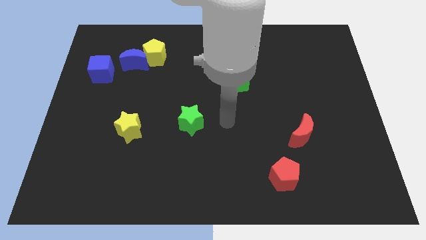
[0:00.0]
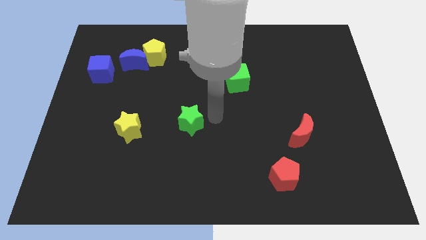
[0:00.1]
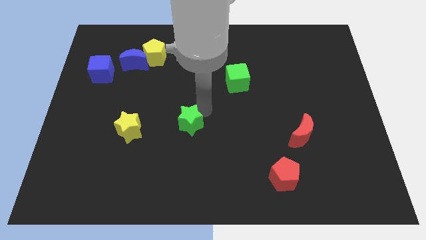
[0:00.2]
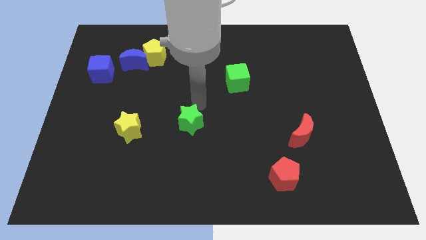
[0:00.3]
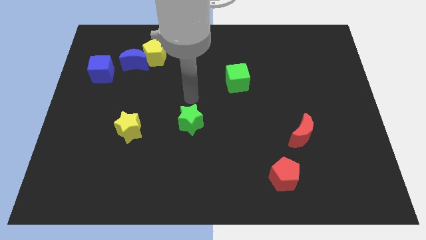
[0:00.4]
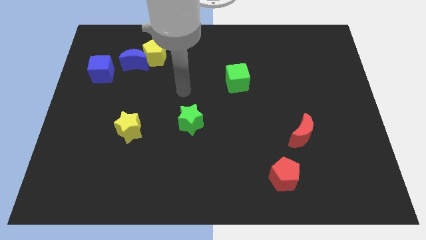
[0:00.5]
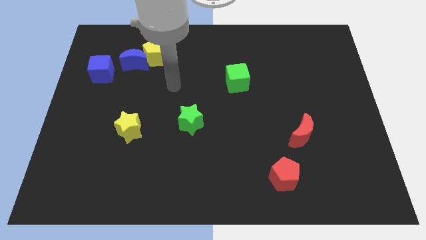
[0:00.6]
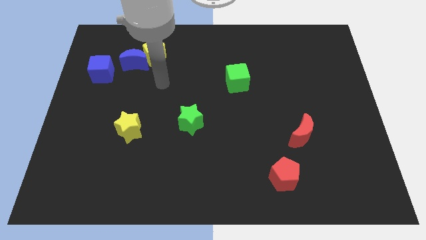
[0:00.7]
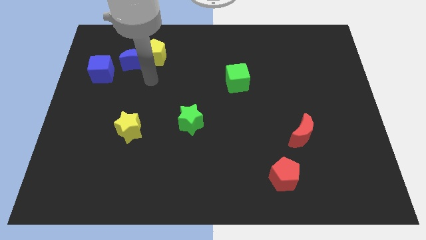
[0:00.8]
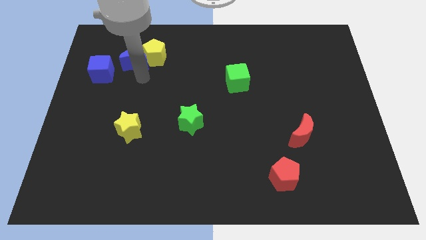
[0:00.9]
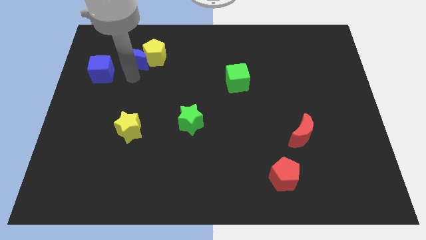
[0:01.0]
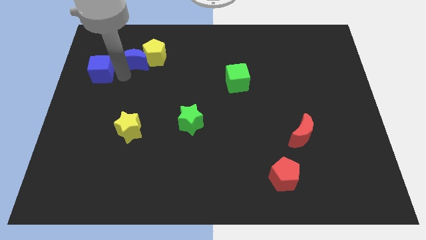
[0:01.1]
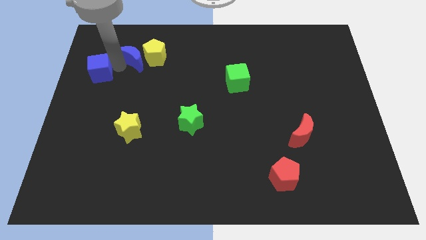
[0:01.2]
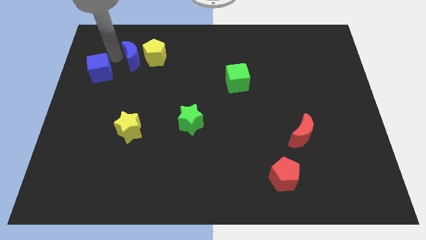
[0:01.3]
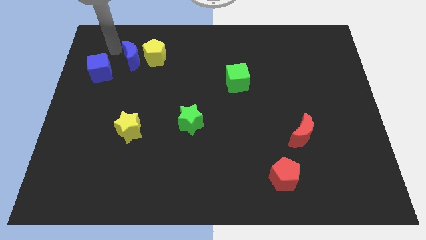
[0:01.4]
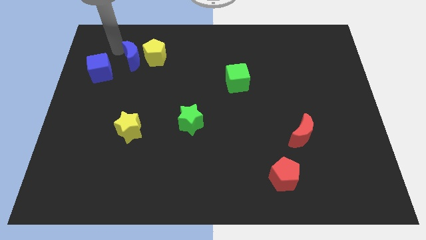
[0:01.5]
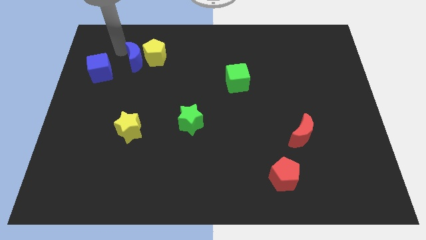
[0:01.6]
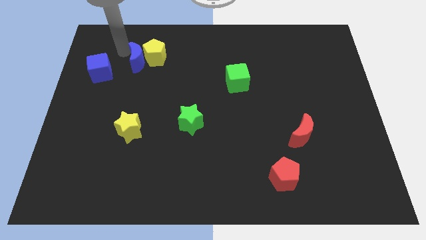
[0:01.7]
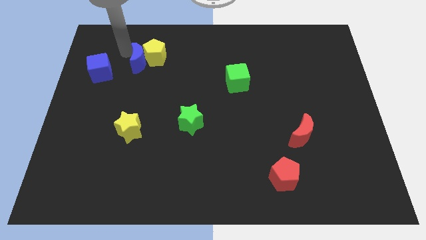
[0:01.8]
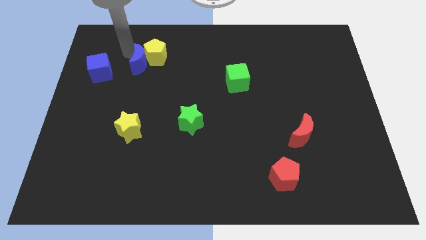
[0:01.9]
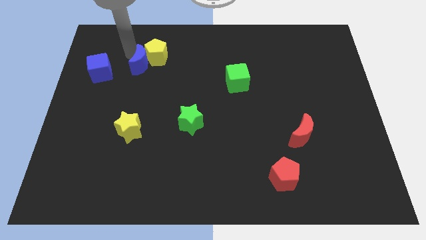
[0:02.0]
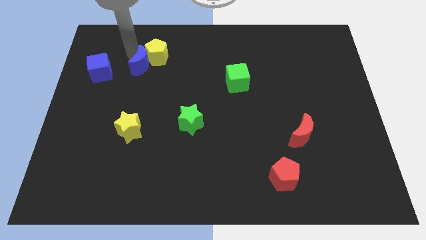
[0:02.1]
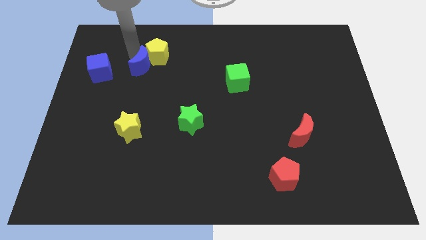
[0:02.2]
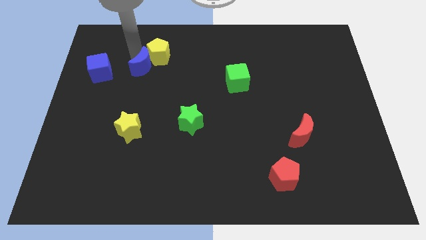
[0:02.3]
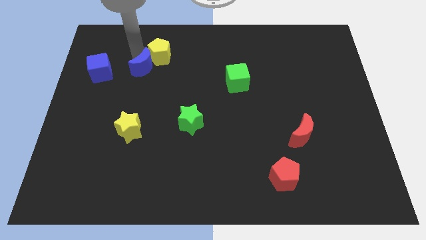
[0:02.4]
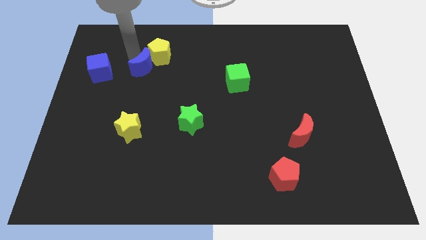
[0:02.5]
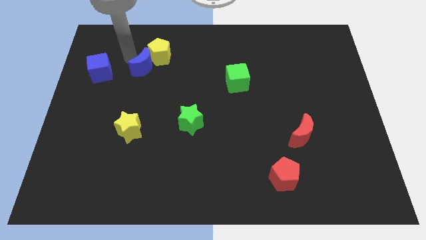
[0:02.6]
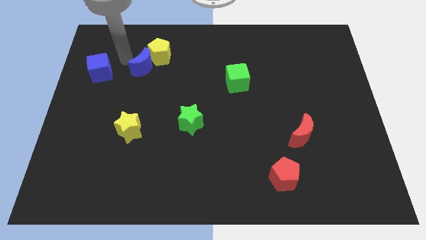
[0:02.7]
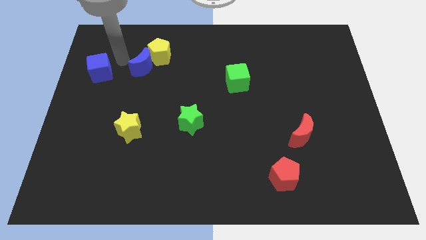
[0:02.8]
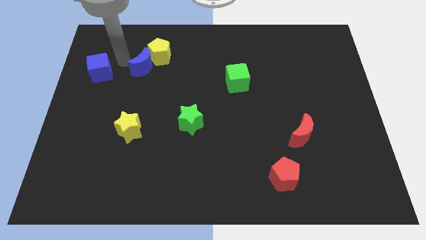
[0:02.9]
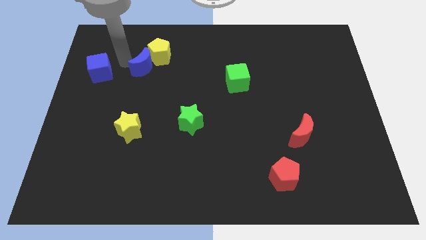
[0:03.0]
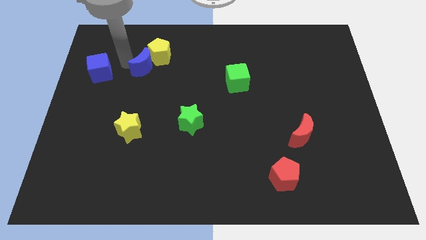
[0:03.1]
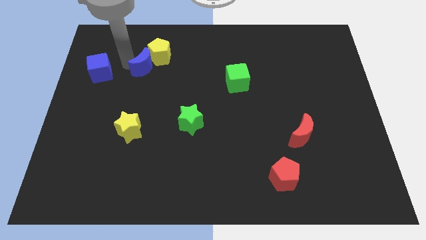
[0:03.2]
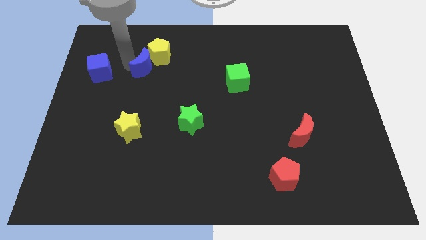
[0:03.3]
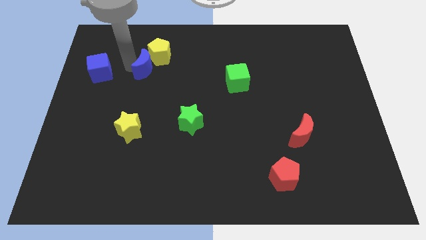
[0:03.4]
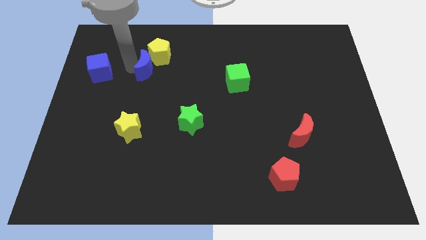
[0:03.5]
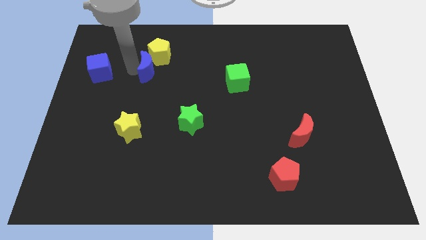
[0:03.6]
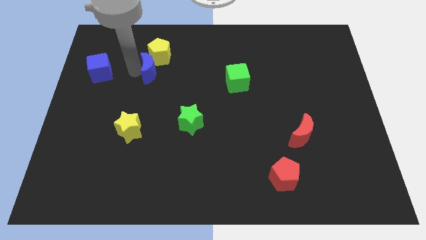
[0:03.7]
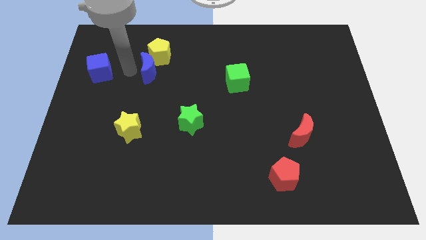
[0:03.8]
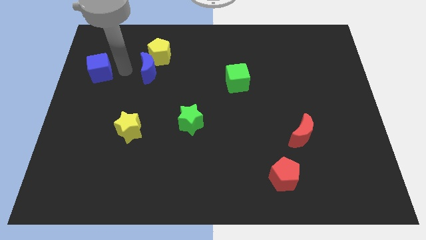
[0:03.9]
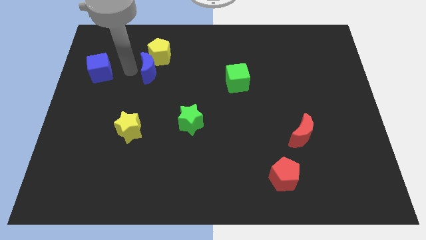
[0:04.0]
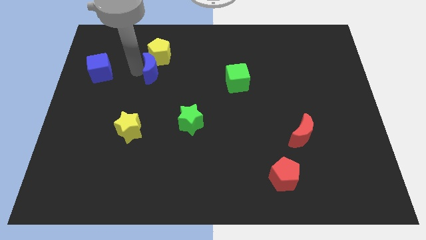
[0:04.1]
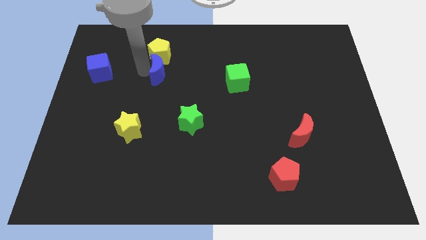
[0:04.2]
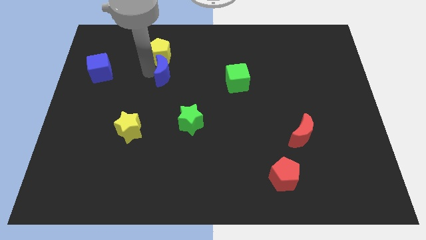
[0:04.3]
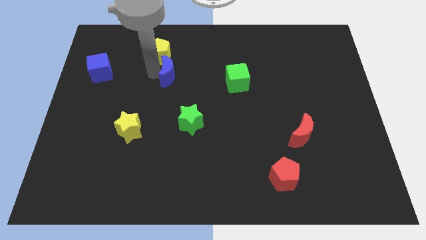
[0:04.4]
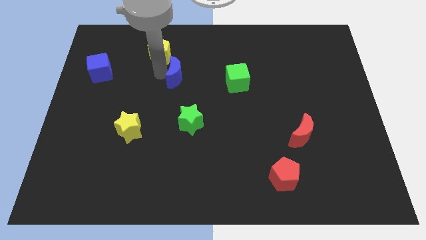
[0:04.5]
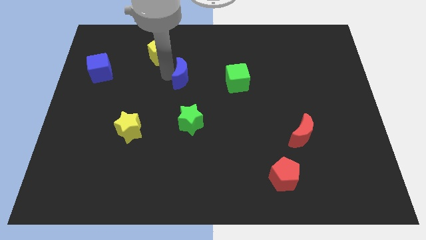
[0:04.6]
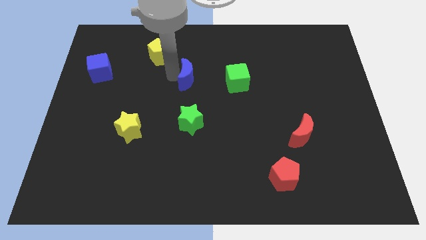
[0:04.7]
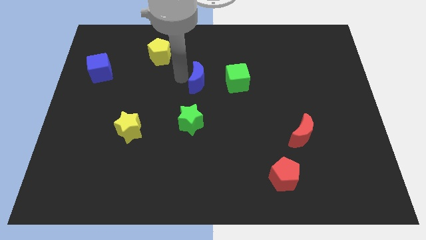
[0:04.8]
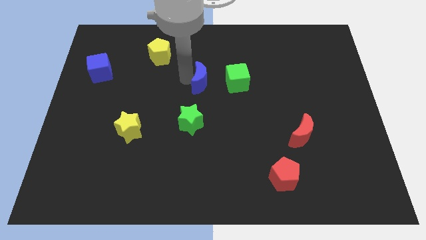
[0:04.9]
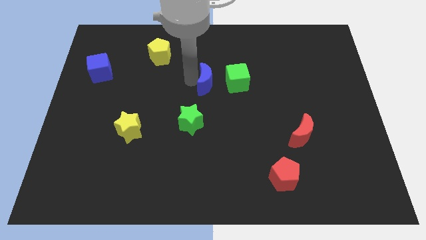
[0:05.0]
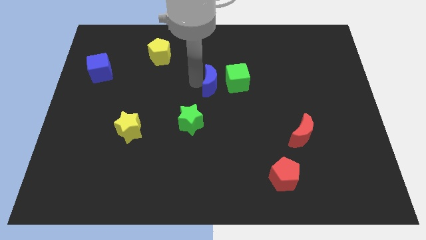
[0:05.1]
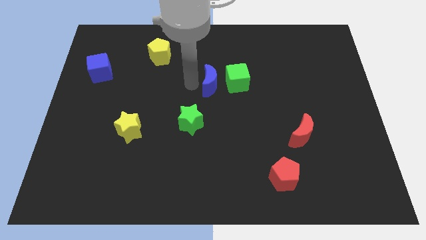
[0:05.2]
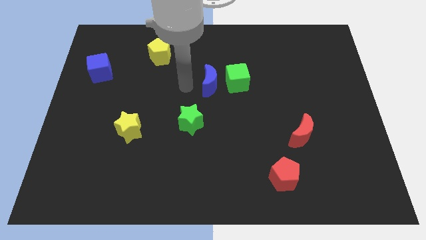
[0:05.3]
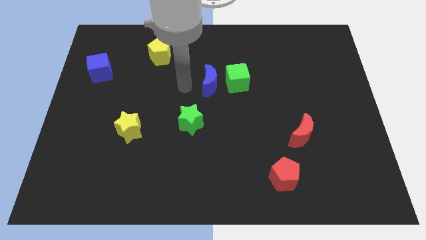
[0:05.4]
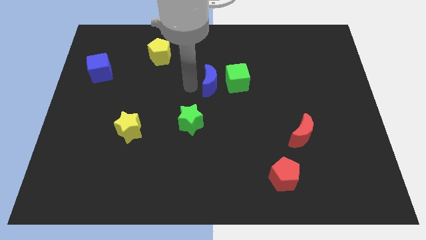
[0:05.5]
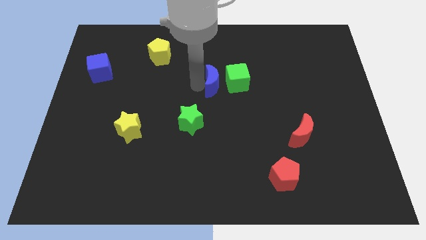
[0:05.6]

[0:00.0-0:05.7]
move the blue moon close to the green cube

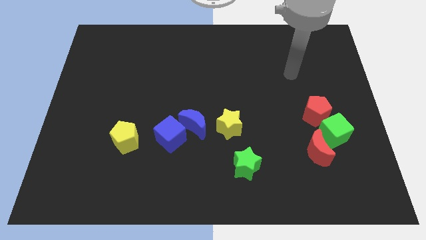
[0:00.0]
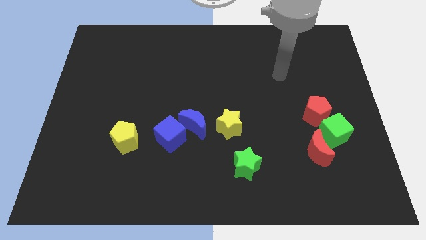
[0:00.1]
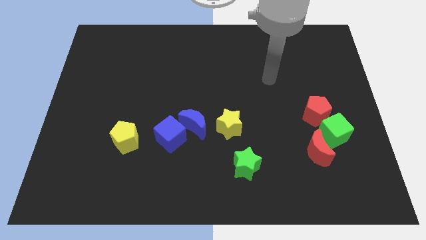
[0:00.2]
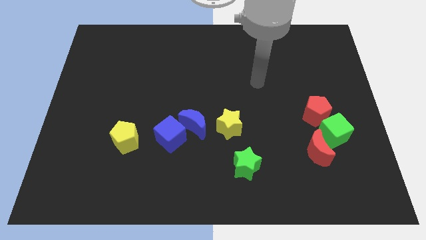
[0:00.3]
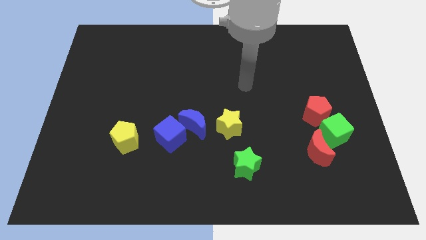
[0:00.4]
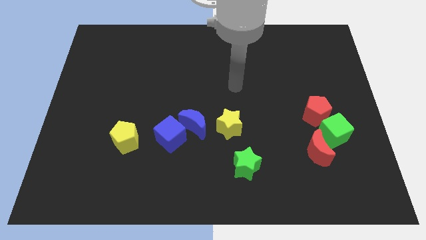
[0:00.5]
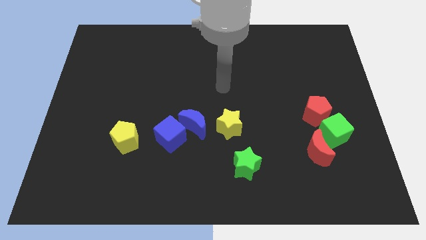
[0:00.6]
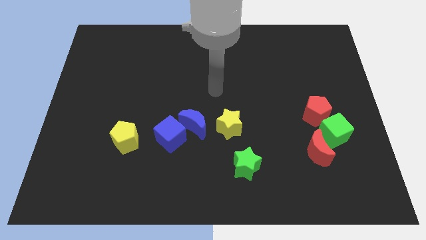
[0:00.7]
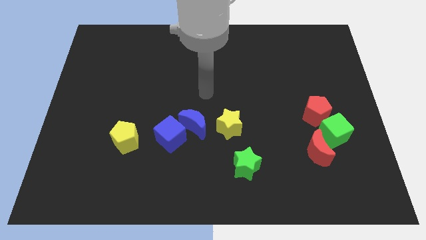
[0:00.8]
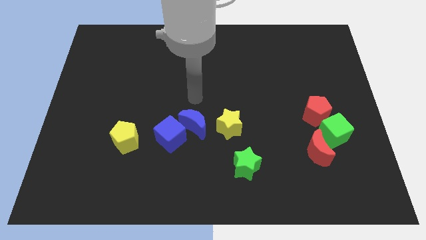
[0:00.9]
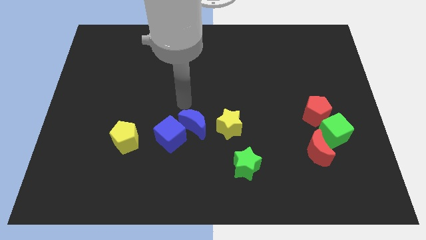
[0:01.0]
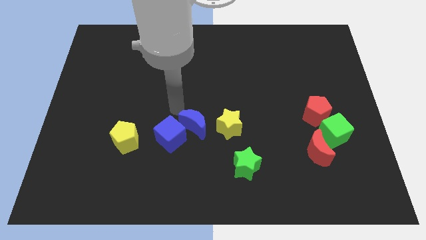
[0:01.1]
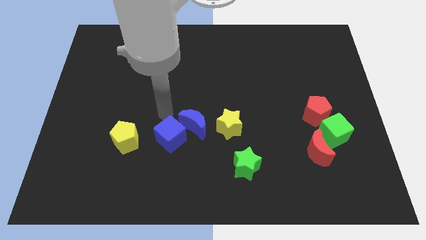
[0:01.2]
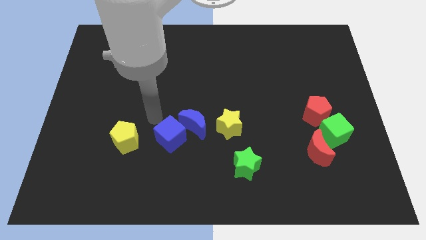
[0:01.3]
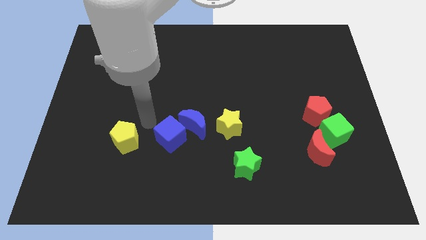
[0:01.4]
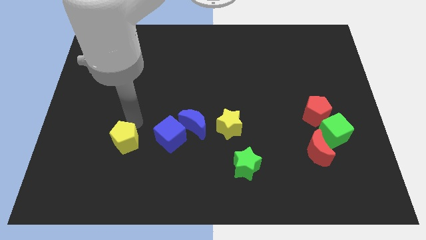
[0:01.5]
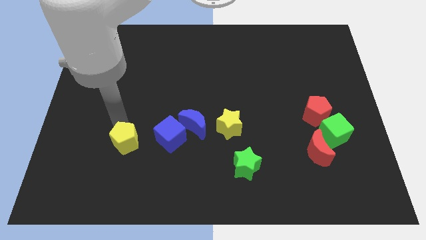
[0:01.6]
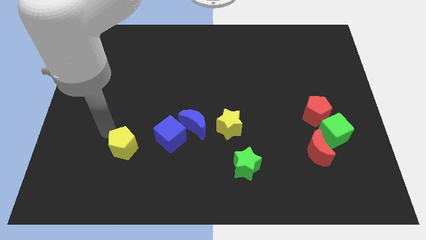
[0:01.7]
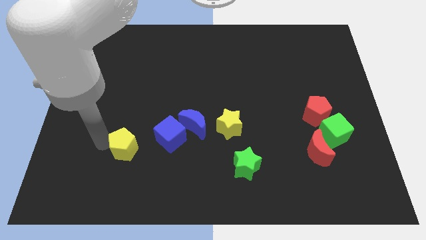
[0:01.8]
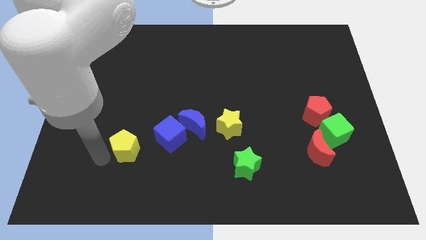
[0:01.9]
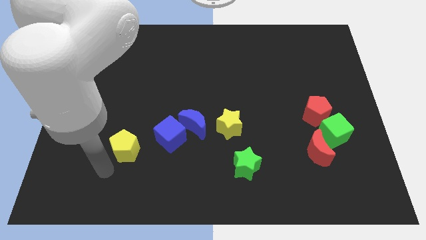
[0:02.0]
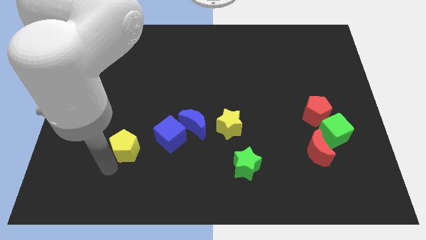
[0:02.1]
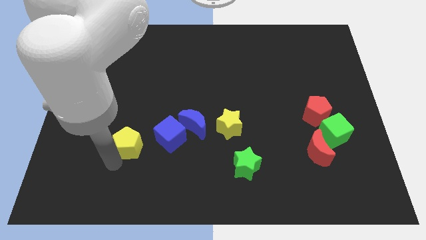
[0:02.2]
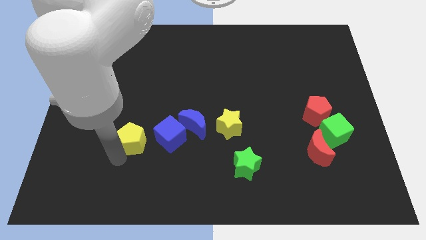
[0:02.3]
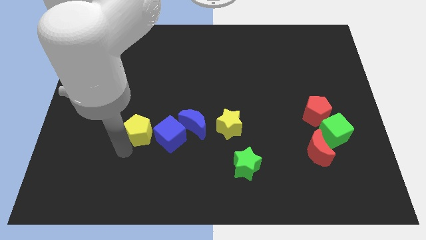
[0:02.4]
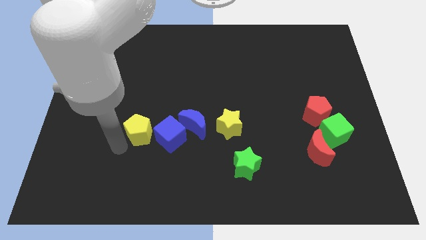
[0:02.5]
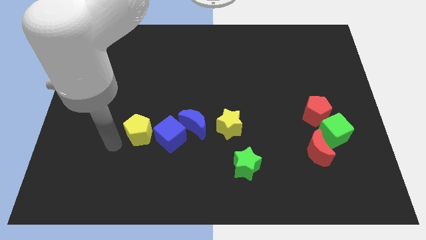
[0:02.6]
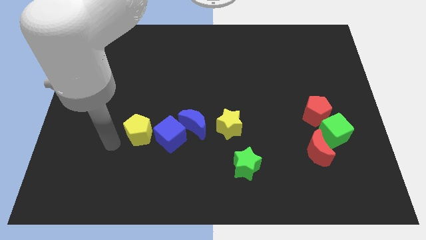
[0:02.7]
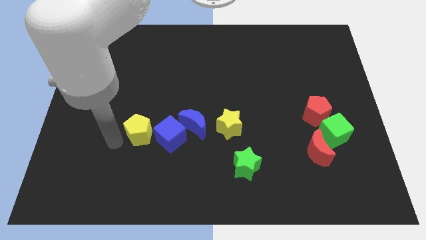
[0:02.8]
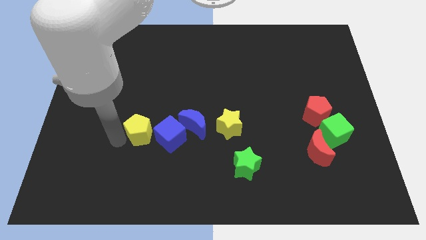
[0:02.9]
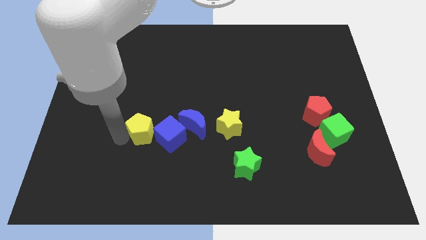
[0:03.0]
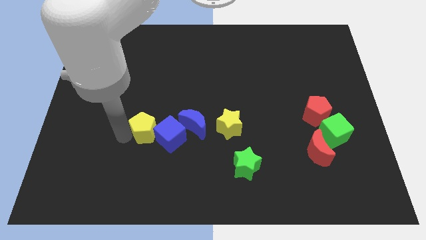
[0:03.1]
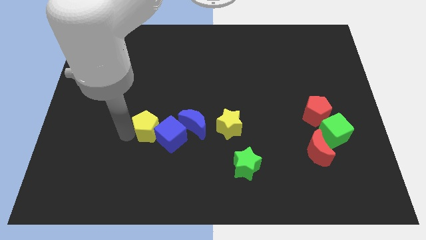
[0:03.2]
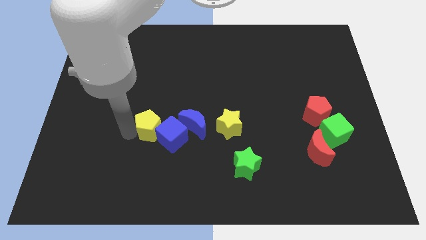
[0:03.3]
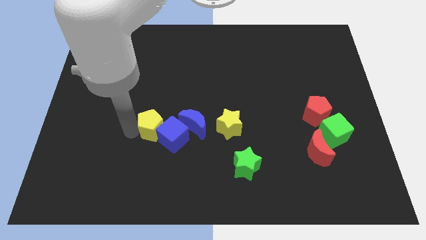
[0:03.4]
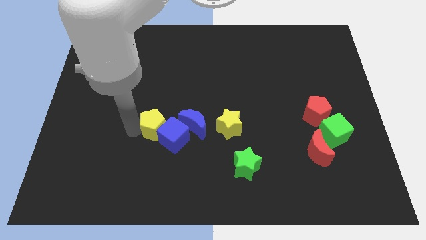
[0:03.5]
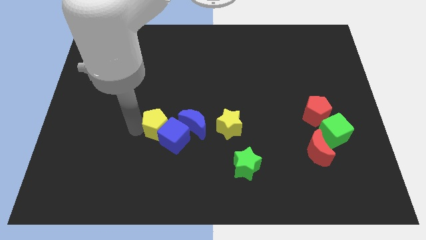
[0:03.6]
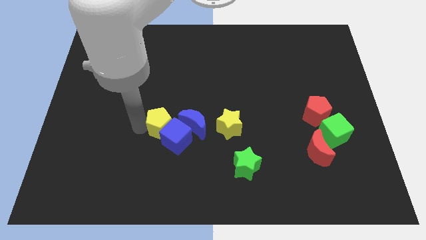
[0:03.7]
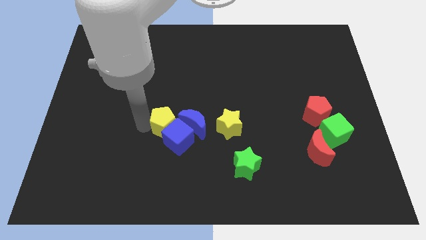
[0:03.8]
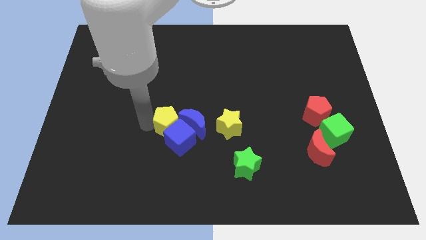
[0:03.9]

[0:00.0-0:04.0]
put the yellow pentagon close to the blue moon
